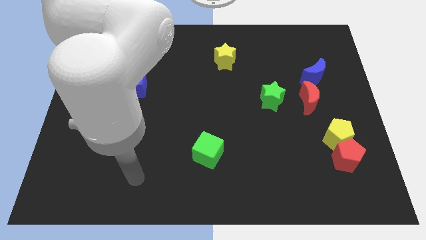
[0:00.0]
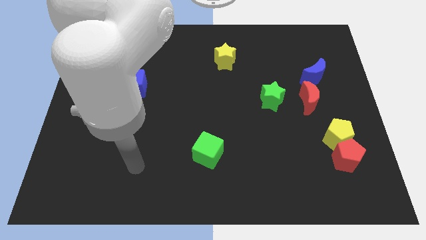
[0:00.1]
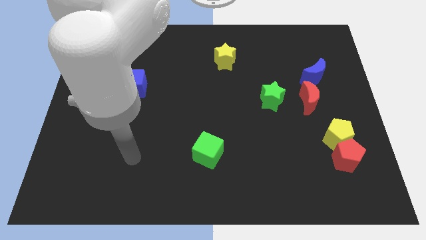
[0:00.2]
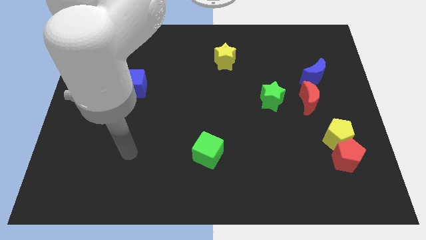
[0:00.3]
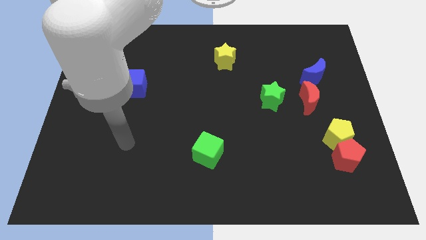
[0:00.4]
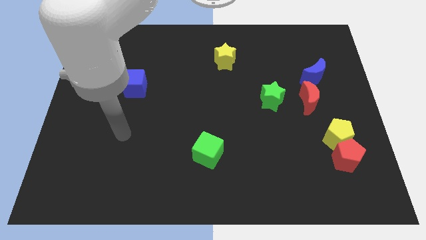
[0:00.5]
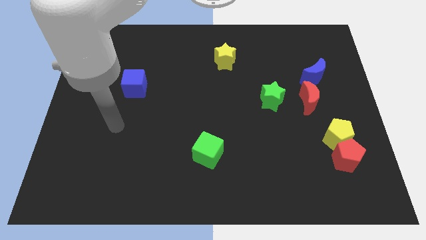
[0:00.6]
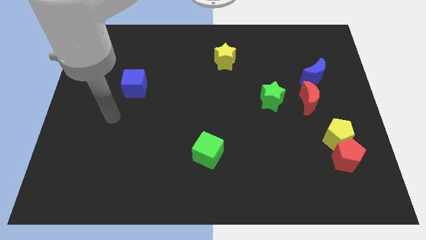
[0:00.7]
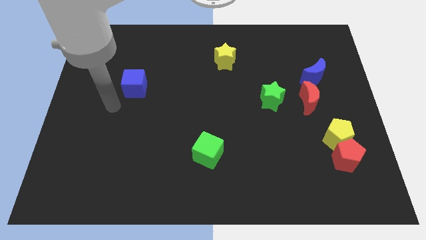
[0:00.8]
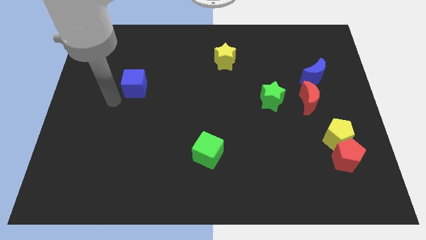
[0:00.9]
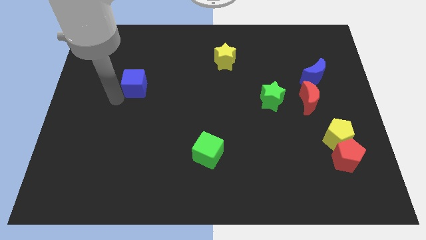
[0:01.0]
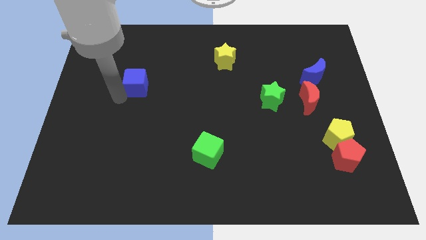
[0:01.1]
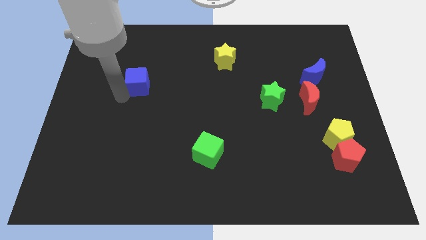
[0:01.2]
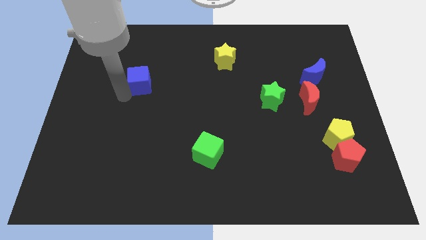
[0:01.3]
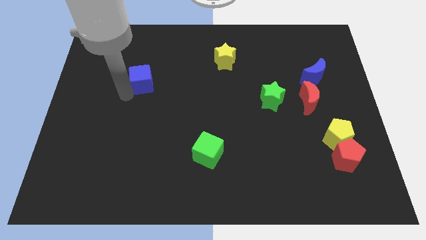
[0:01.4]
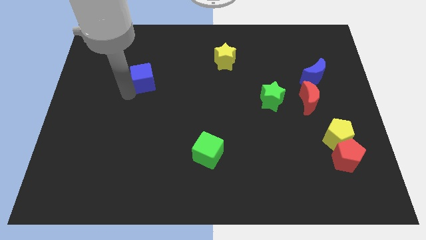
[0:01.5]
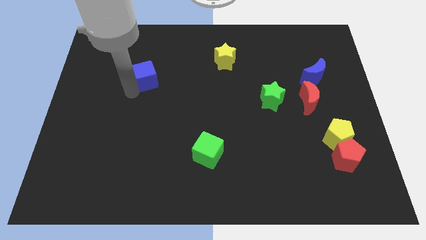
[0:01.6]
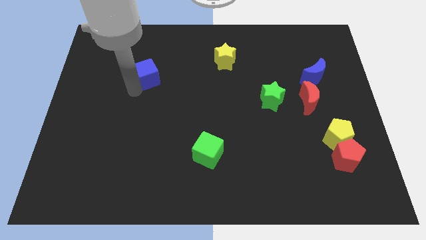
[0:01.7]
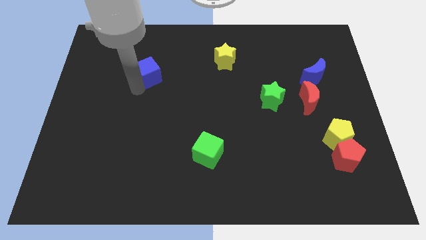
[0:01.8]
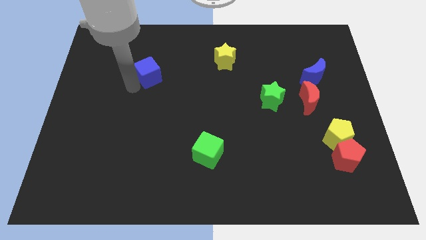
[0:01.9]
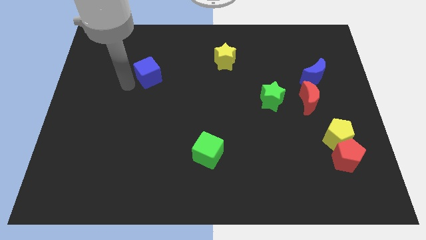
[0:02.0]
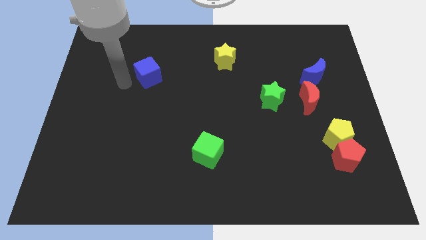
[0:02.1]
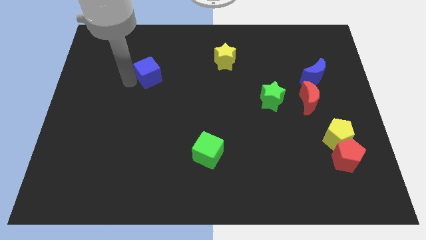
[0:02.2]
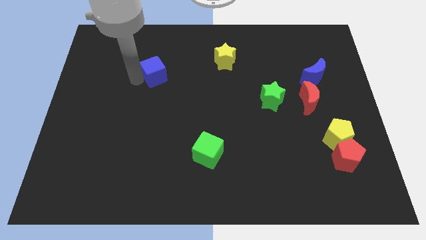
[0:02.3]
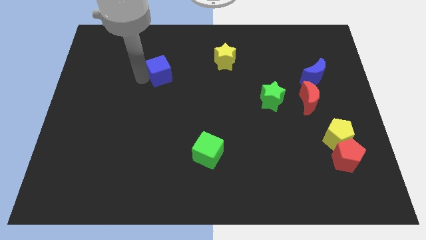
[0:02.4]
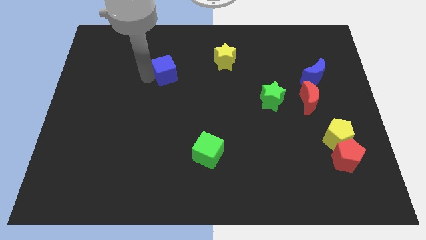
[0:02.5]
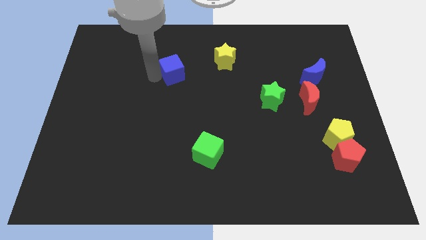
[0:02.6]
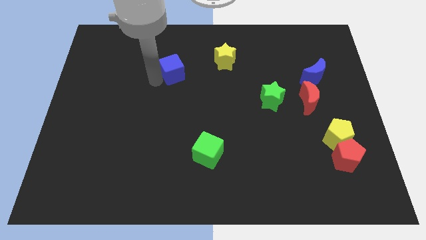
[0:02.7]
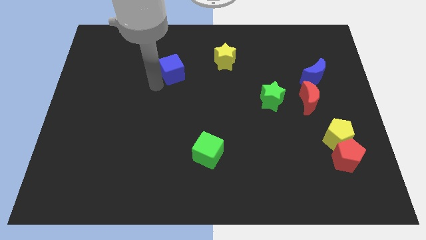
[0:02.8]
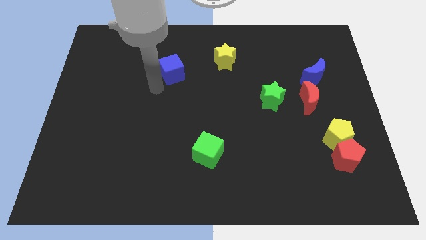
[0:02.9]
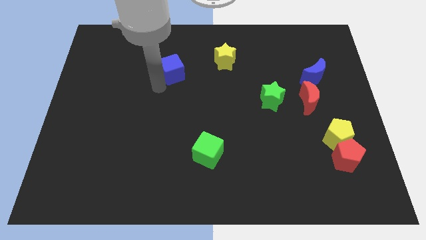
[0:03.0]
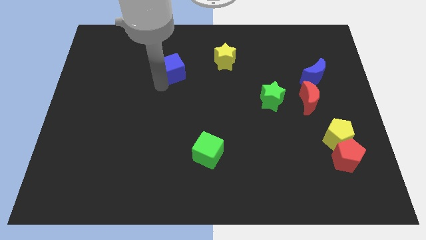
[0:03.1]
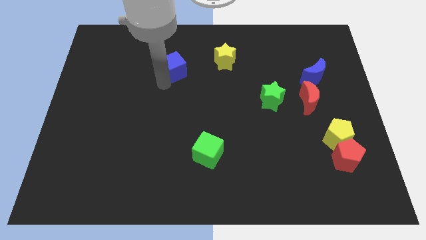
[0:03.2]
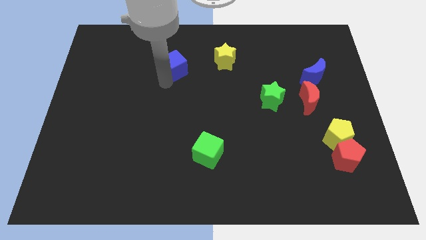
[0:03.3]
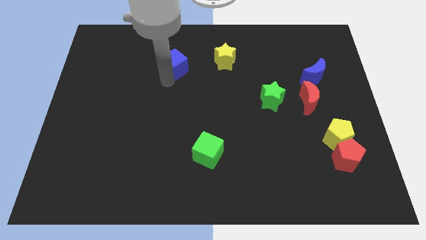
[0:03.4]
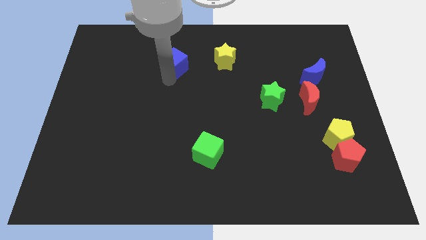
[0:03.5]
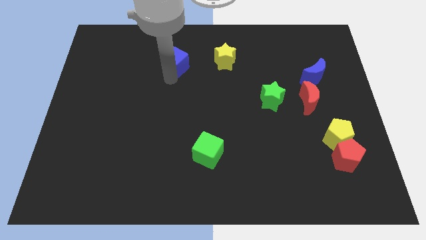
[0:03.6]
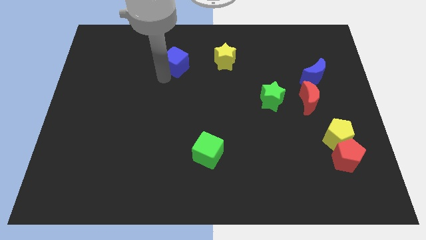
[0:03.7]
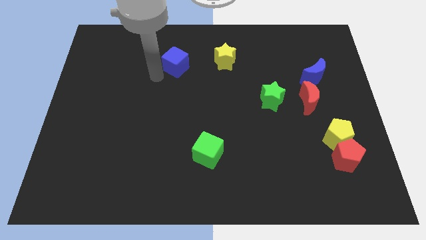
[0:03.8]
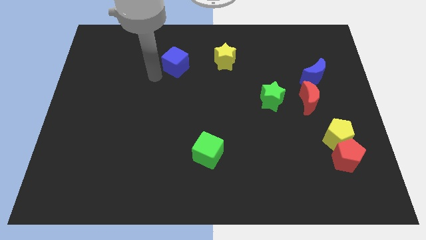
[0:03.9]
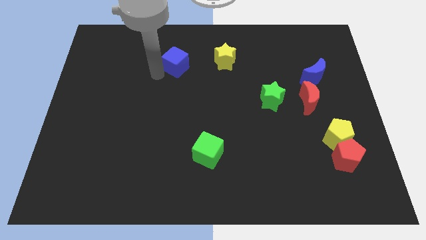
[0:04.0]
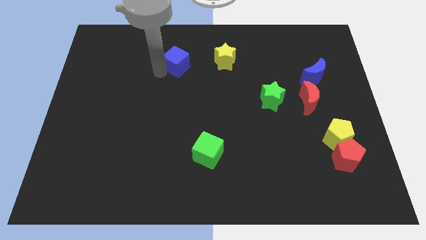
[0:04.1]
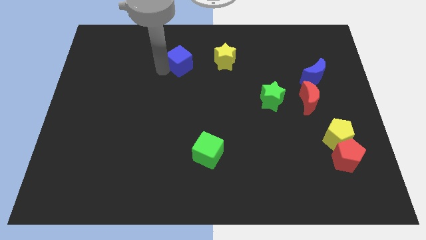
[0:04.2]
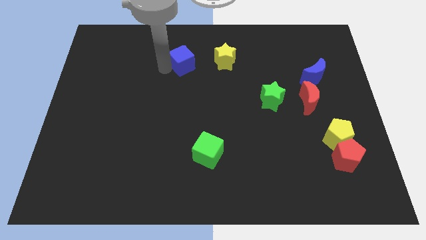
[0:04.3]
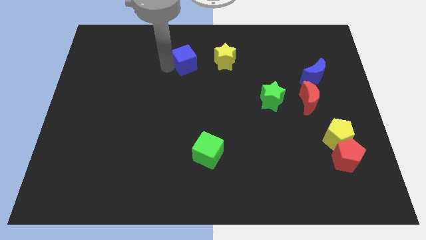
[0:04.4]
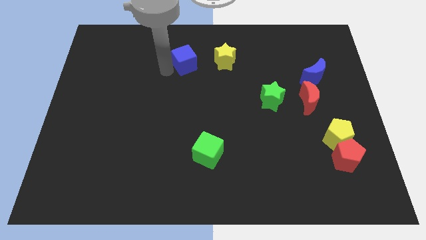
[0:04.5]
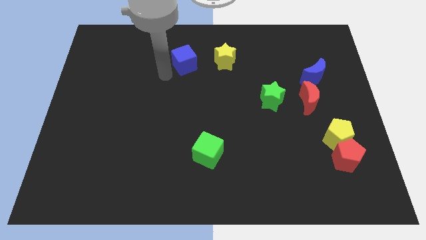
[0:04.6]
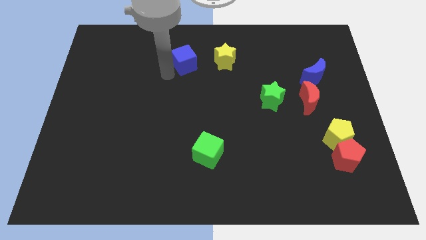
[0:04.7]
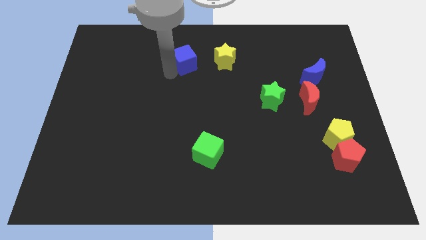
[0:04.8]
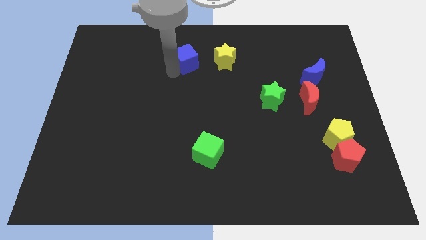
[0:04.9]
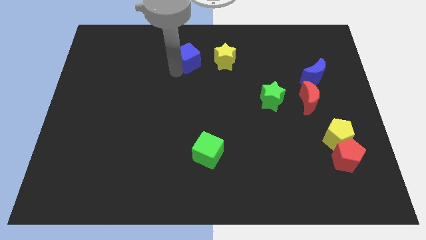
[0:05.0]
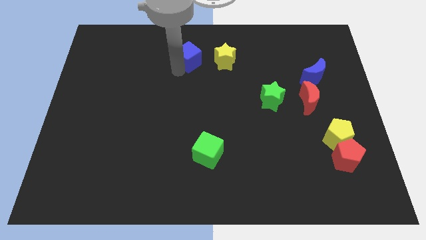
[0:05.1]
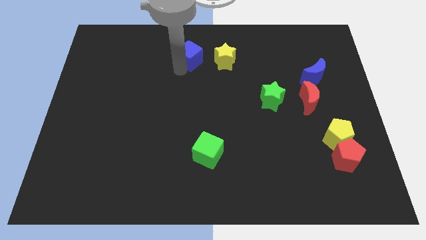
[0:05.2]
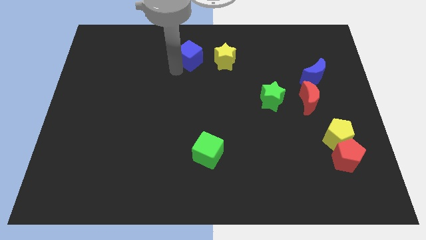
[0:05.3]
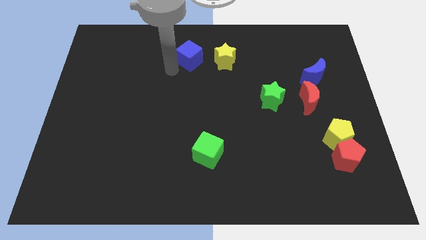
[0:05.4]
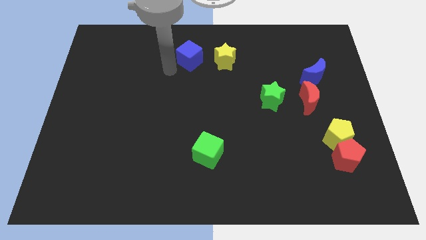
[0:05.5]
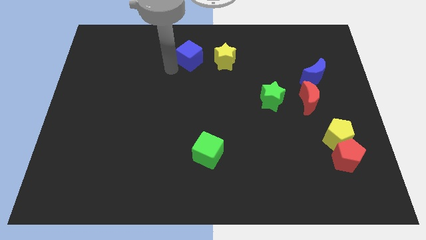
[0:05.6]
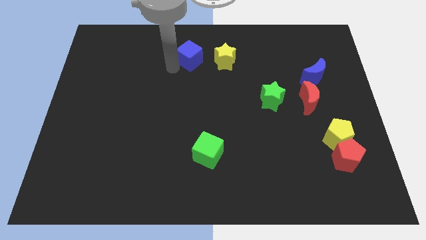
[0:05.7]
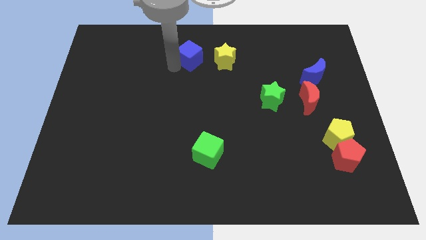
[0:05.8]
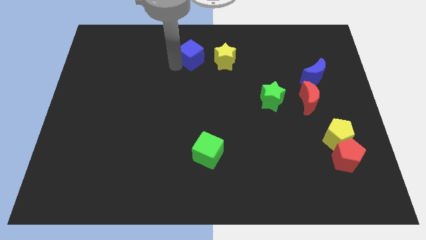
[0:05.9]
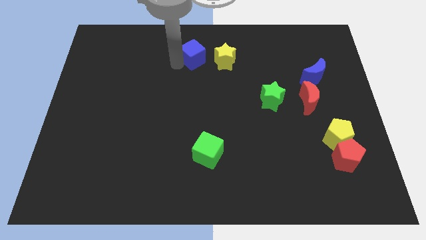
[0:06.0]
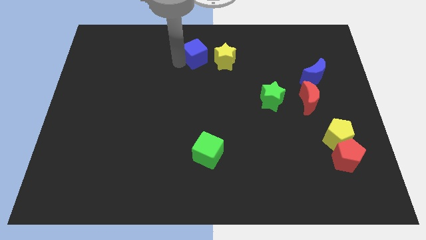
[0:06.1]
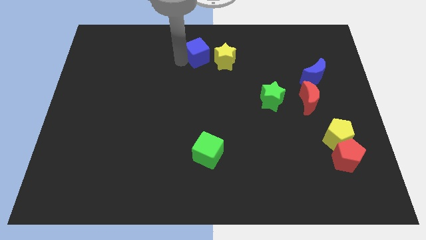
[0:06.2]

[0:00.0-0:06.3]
move the blue cube to the towards your base

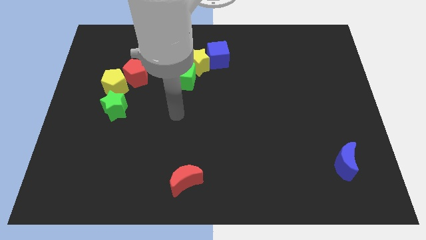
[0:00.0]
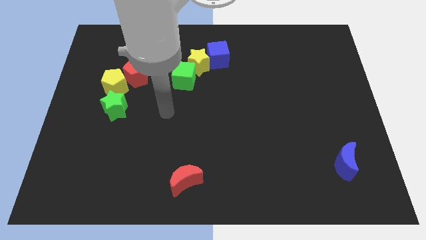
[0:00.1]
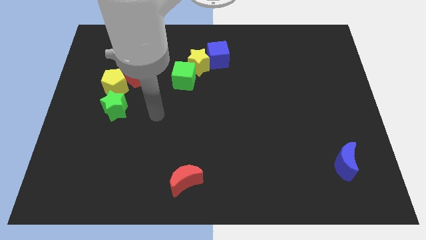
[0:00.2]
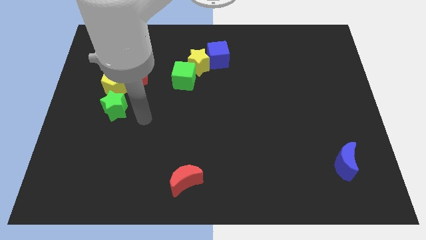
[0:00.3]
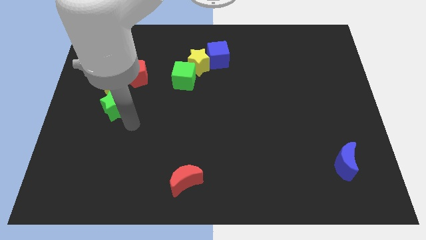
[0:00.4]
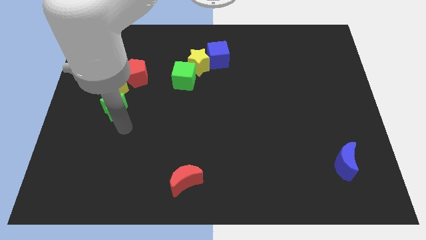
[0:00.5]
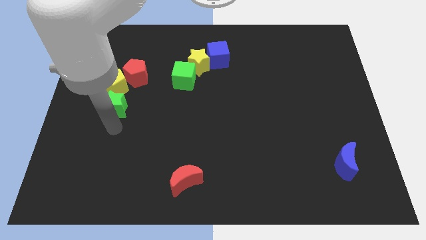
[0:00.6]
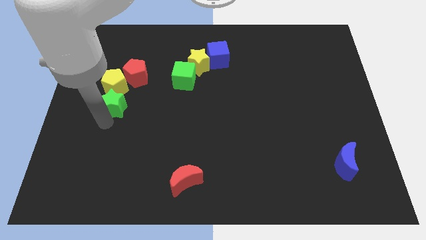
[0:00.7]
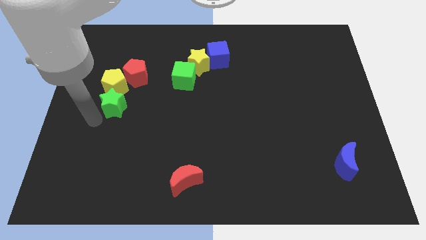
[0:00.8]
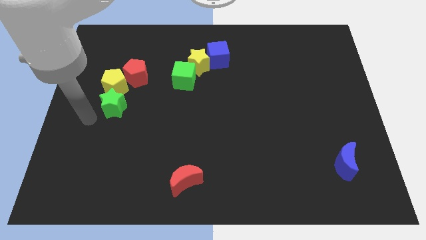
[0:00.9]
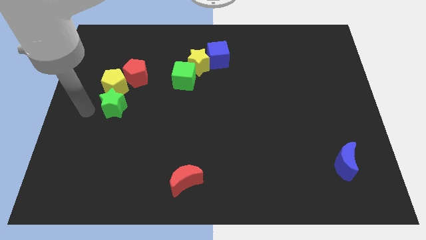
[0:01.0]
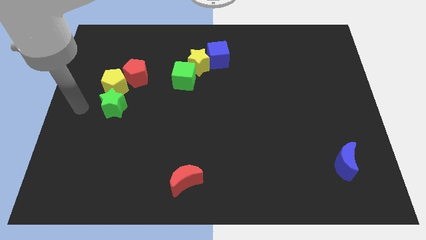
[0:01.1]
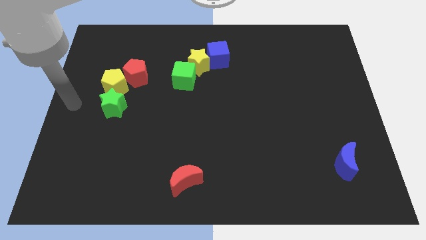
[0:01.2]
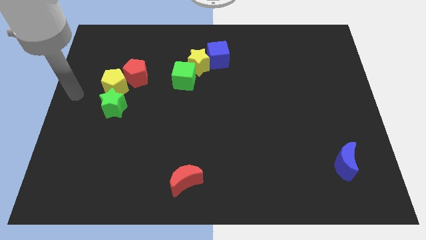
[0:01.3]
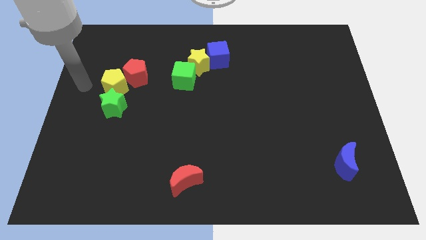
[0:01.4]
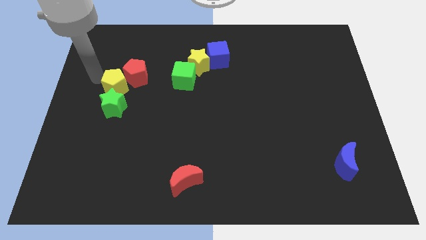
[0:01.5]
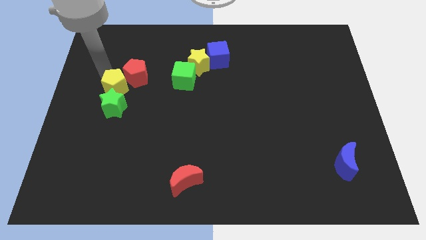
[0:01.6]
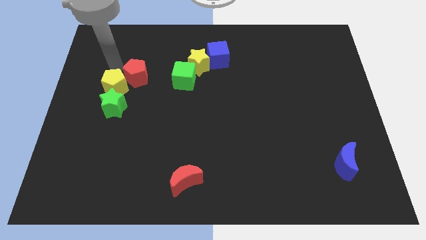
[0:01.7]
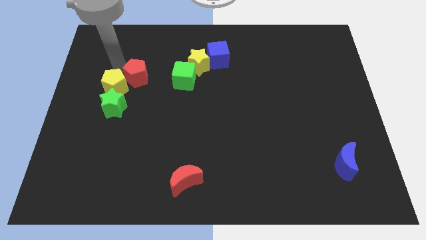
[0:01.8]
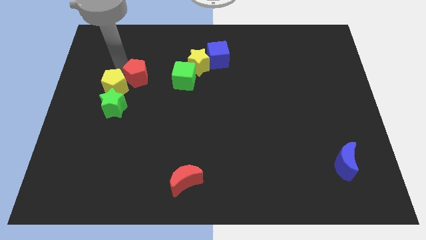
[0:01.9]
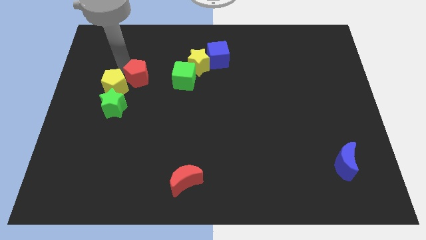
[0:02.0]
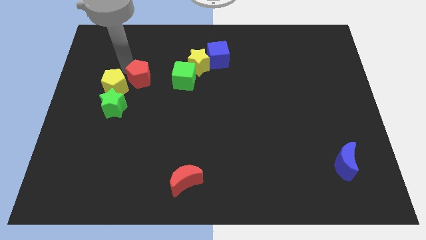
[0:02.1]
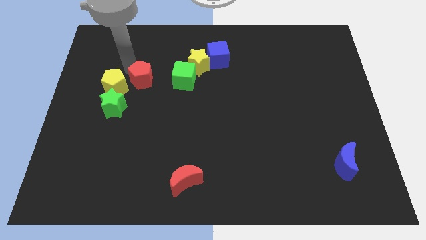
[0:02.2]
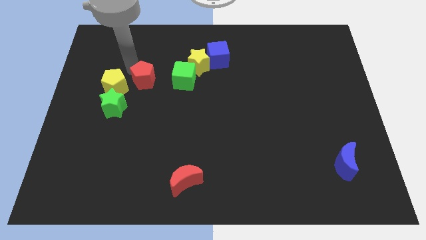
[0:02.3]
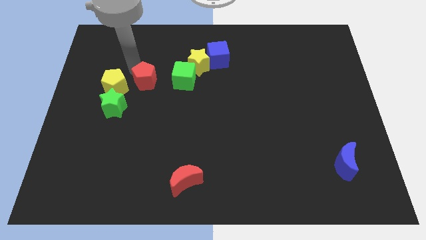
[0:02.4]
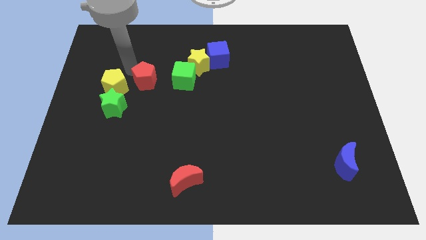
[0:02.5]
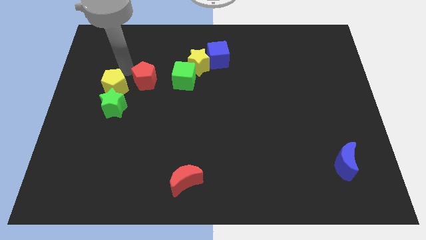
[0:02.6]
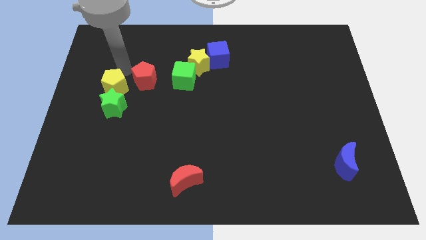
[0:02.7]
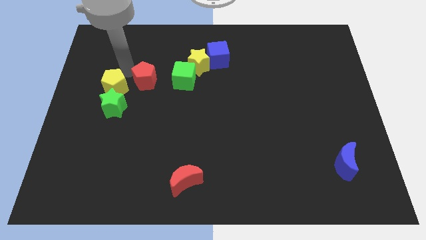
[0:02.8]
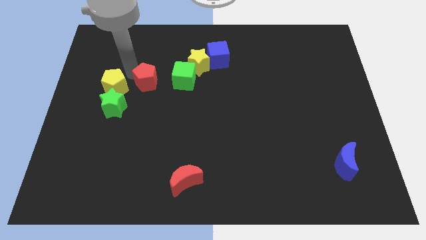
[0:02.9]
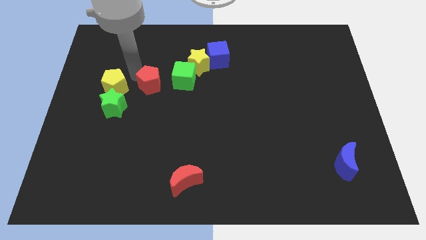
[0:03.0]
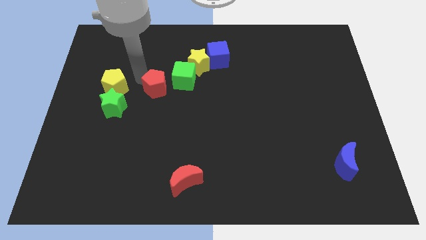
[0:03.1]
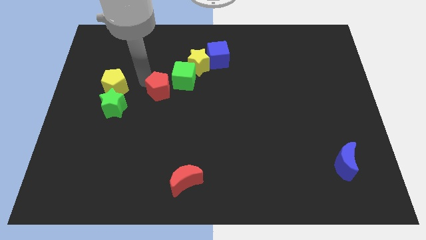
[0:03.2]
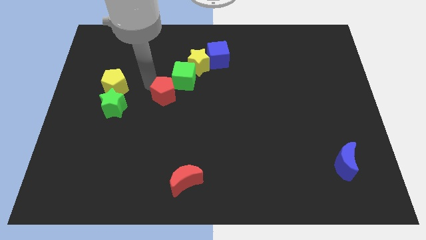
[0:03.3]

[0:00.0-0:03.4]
put the red pentagon to the center
